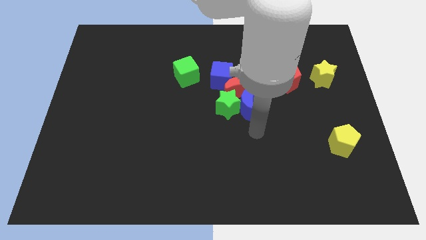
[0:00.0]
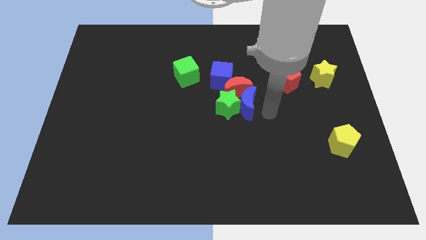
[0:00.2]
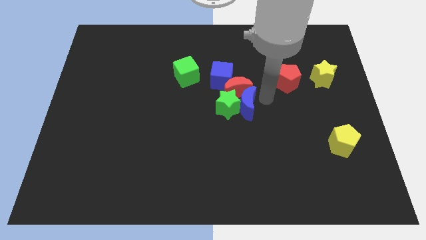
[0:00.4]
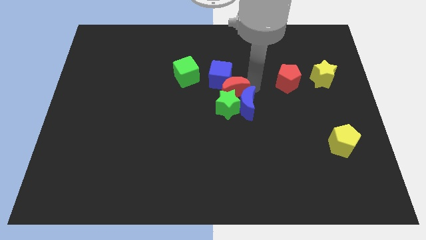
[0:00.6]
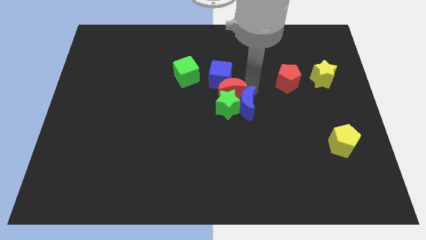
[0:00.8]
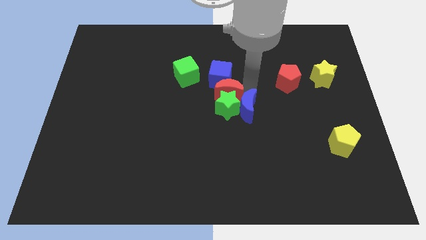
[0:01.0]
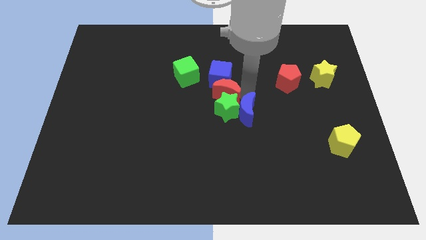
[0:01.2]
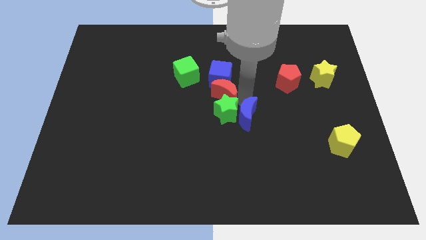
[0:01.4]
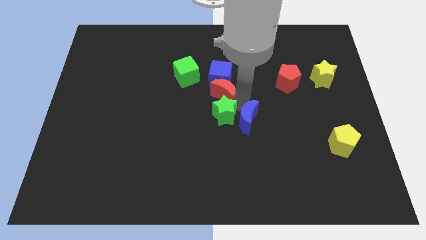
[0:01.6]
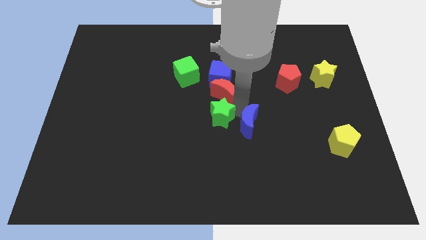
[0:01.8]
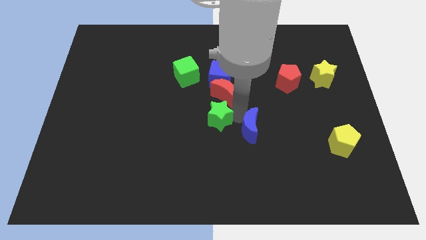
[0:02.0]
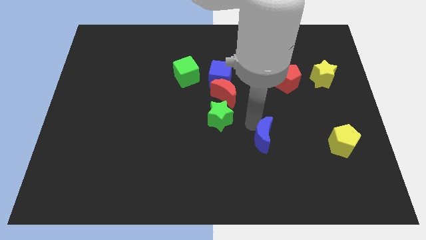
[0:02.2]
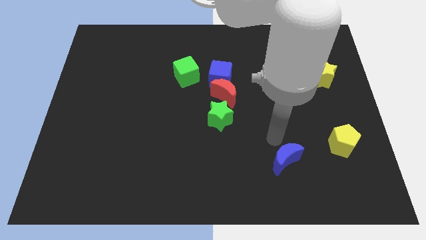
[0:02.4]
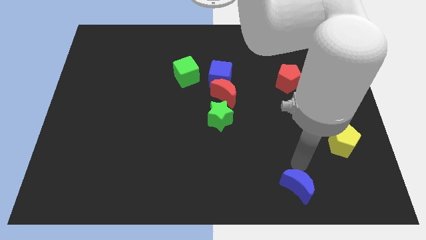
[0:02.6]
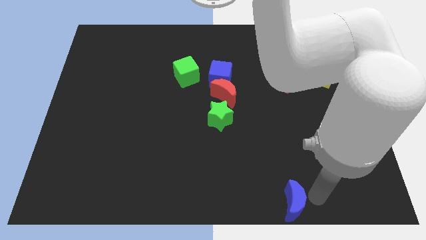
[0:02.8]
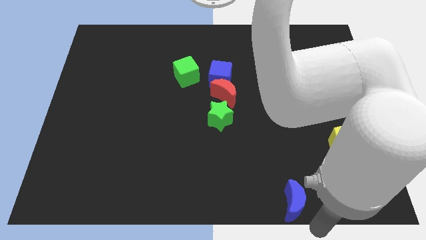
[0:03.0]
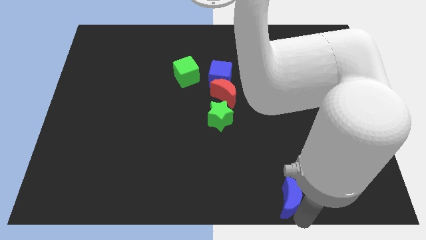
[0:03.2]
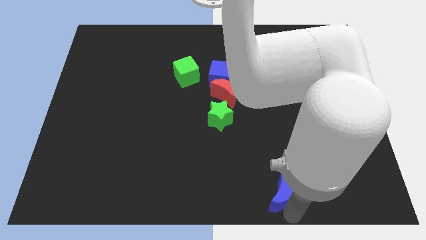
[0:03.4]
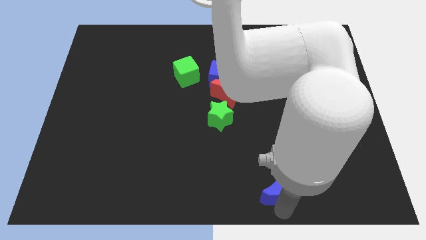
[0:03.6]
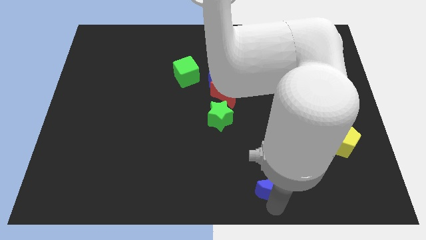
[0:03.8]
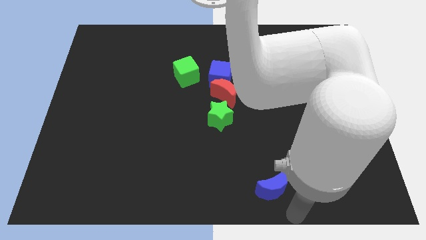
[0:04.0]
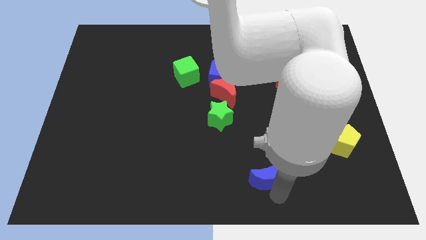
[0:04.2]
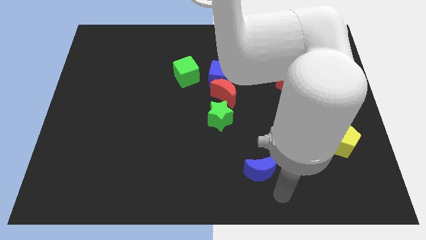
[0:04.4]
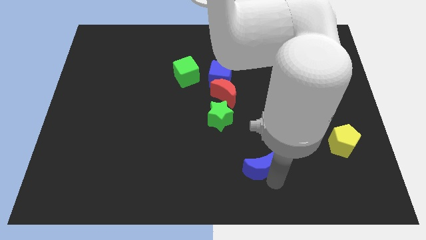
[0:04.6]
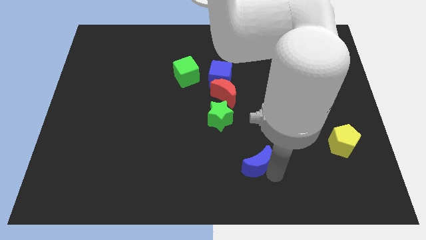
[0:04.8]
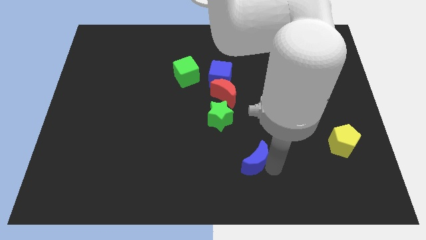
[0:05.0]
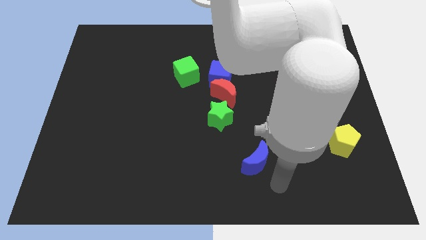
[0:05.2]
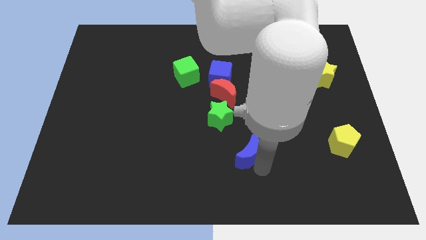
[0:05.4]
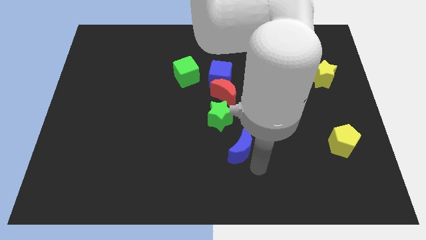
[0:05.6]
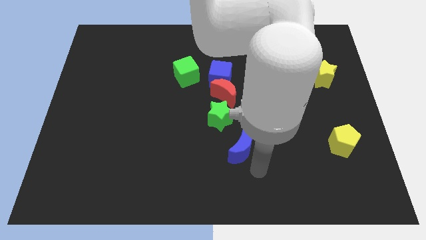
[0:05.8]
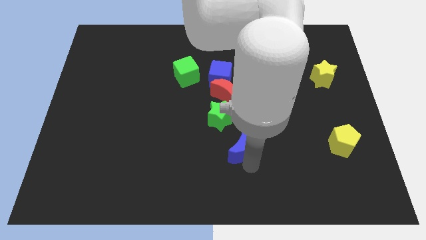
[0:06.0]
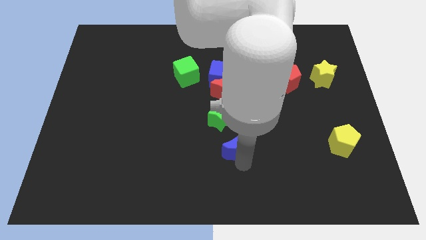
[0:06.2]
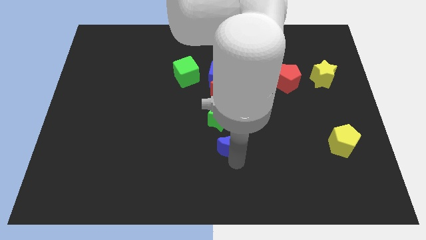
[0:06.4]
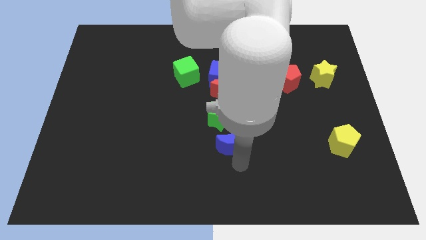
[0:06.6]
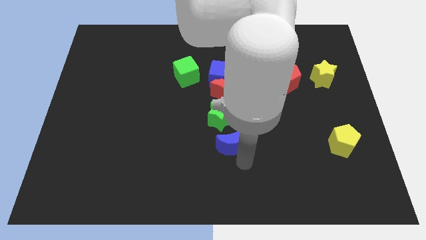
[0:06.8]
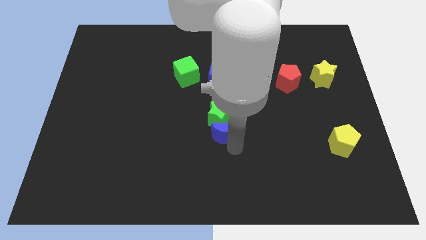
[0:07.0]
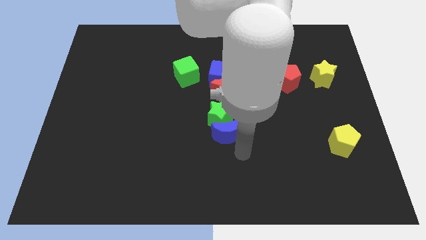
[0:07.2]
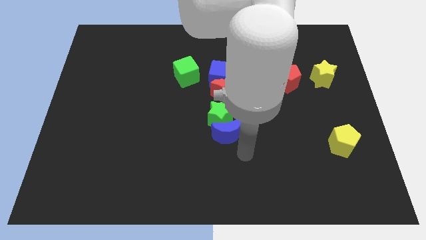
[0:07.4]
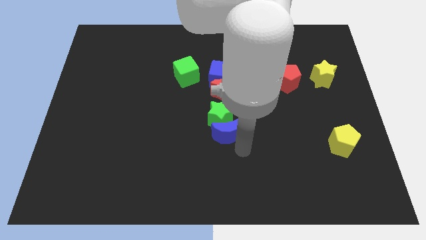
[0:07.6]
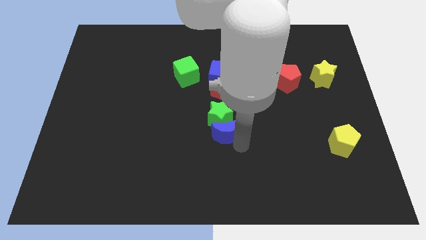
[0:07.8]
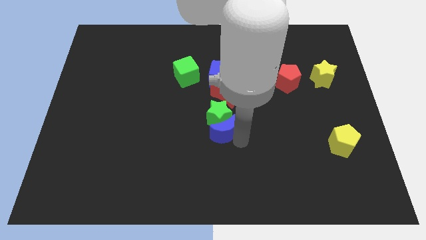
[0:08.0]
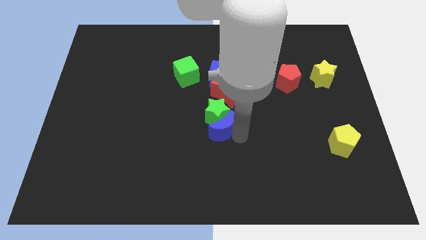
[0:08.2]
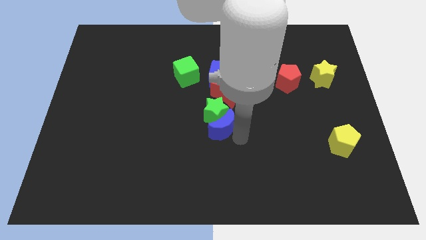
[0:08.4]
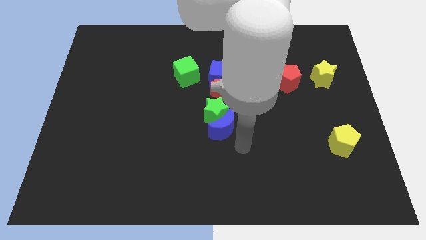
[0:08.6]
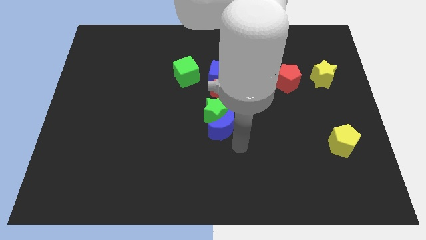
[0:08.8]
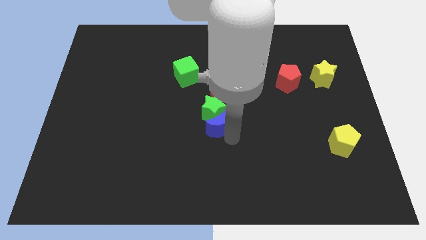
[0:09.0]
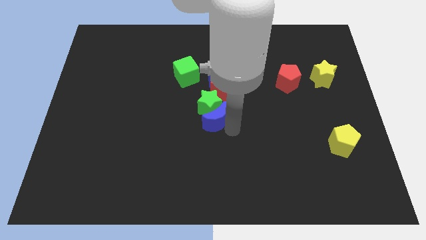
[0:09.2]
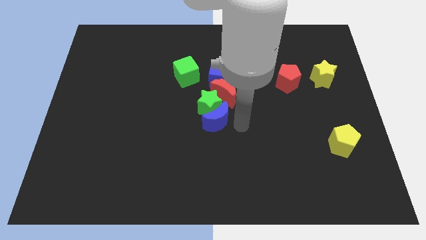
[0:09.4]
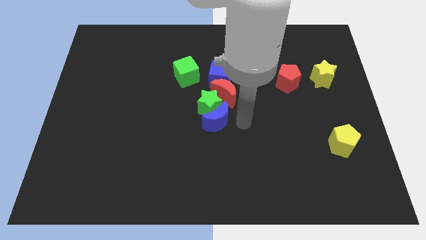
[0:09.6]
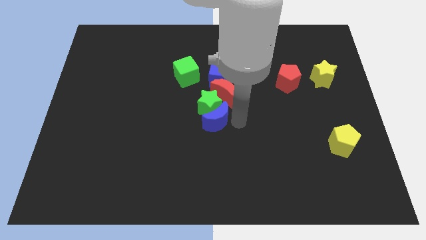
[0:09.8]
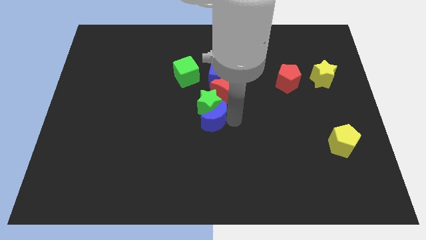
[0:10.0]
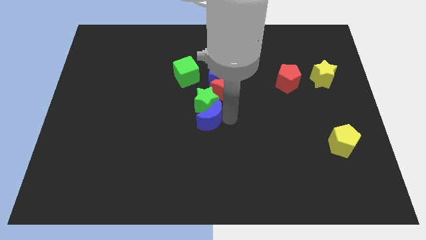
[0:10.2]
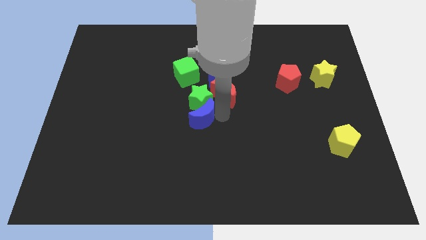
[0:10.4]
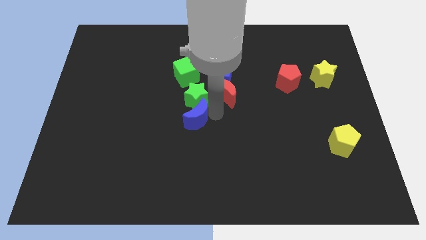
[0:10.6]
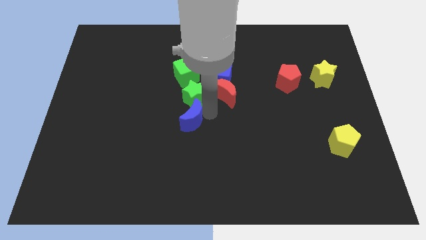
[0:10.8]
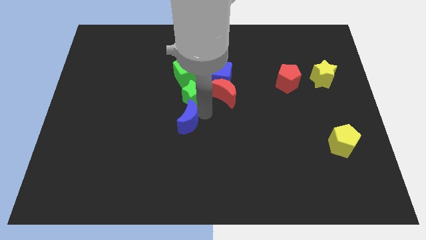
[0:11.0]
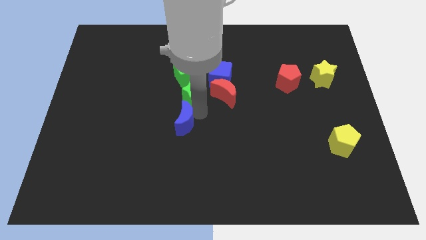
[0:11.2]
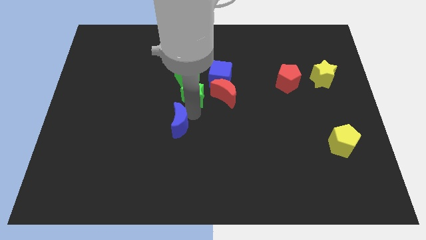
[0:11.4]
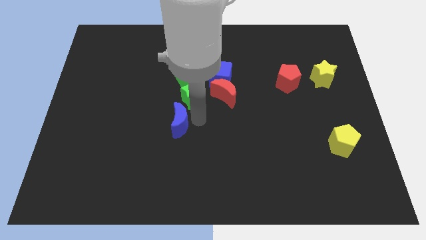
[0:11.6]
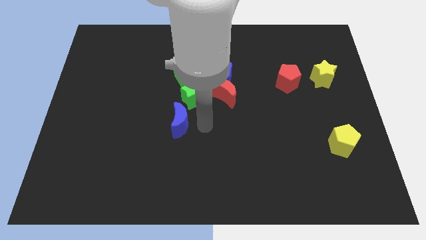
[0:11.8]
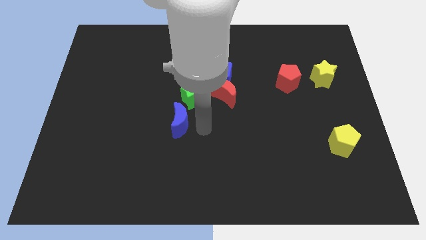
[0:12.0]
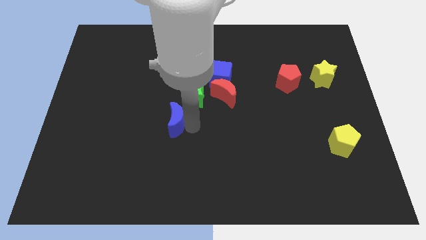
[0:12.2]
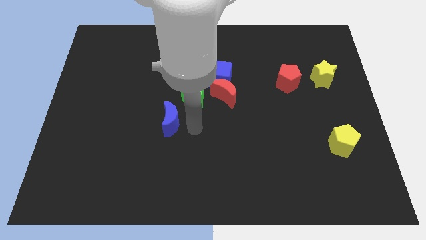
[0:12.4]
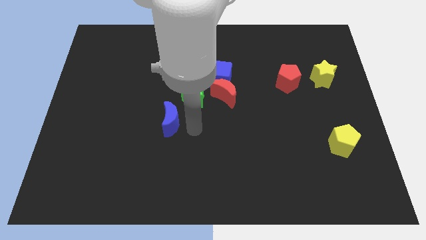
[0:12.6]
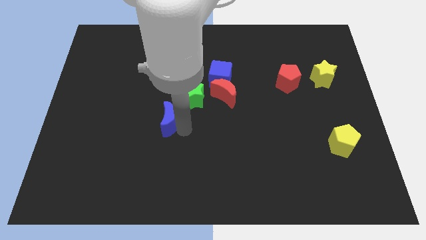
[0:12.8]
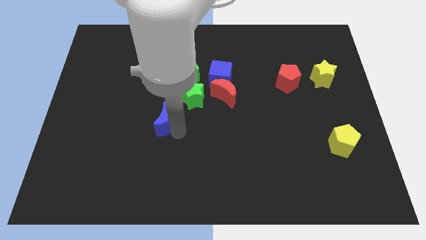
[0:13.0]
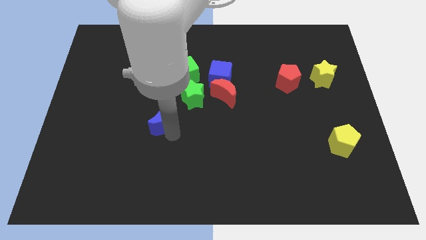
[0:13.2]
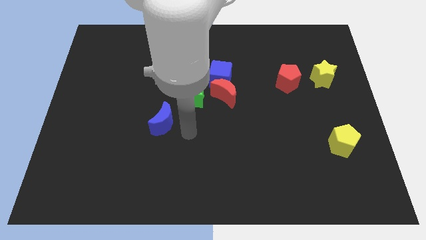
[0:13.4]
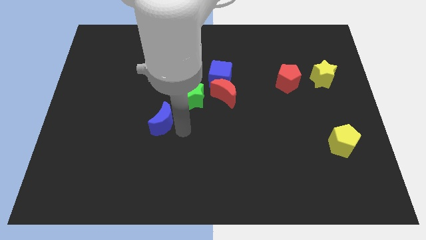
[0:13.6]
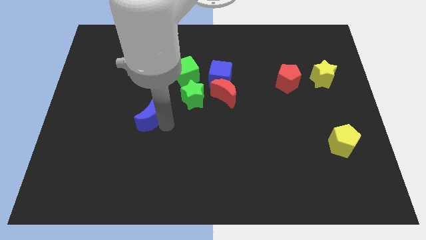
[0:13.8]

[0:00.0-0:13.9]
push the blue moon to the left

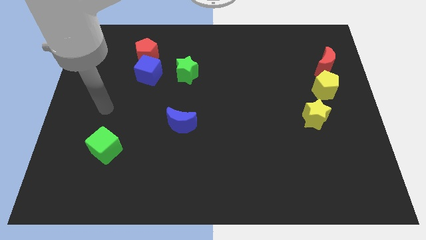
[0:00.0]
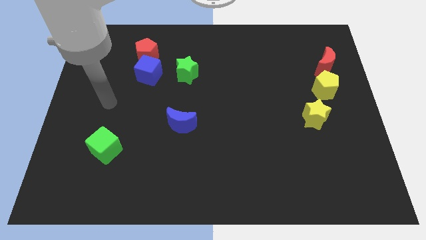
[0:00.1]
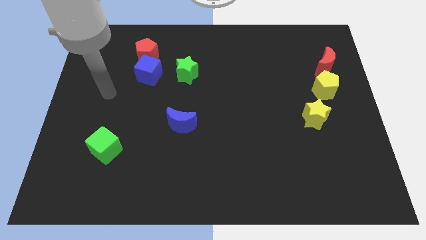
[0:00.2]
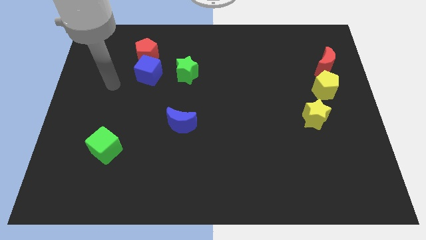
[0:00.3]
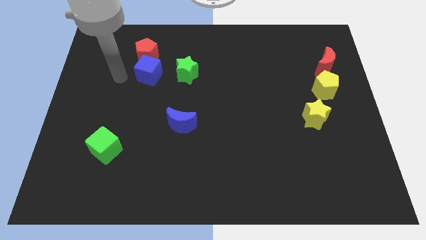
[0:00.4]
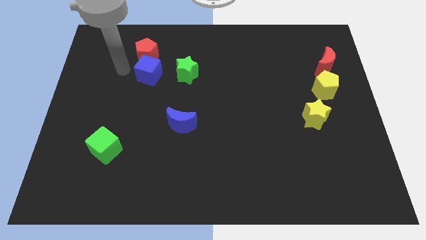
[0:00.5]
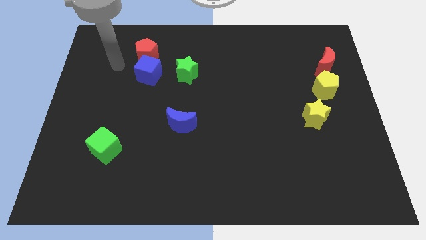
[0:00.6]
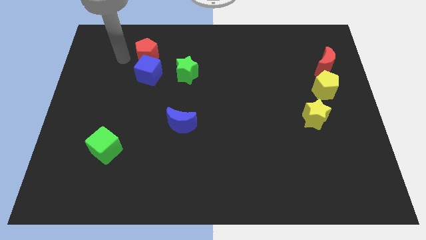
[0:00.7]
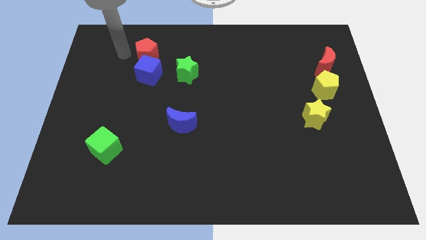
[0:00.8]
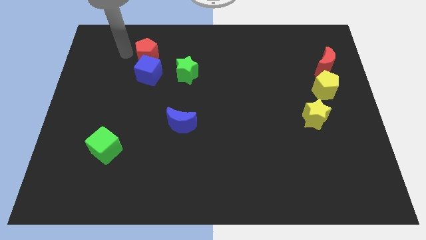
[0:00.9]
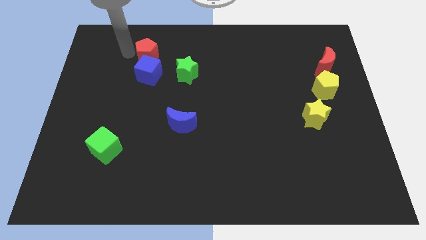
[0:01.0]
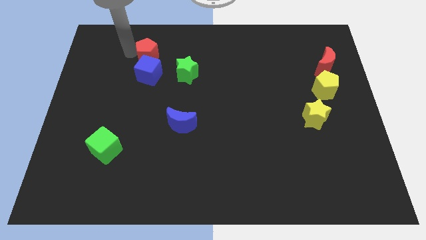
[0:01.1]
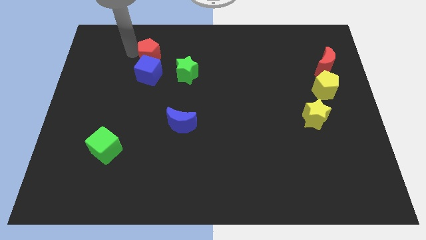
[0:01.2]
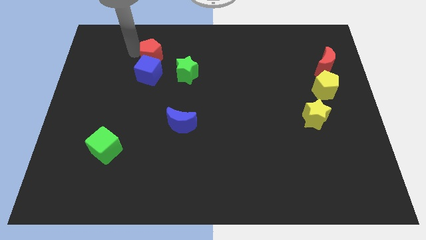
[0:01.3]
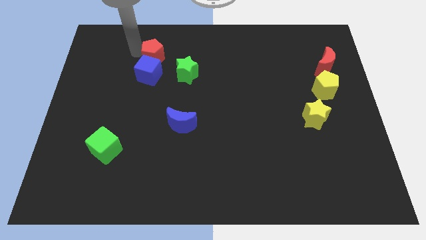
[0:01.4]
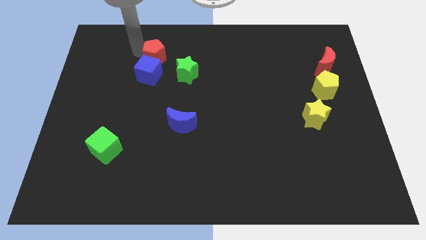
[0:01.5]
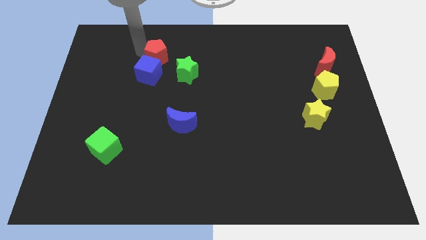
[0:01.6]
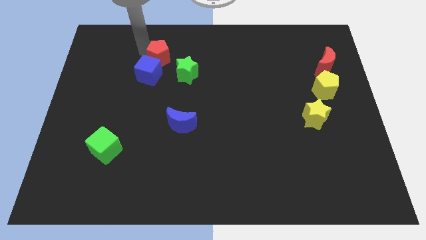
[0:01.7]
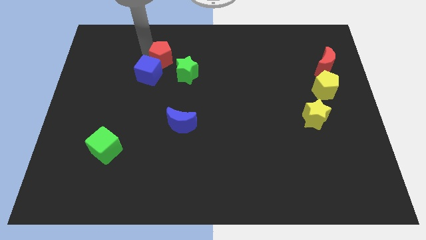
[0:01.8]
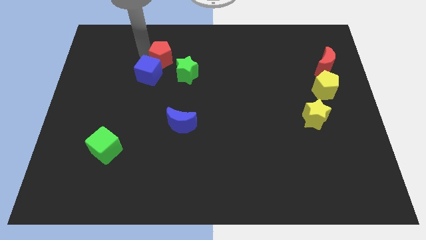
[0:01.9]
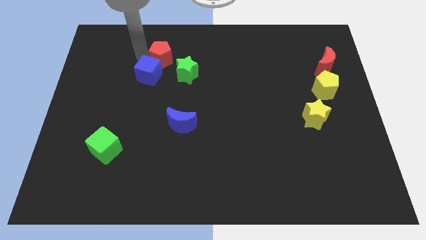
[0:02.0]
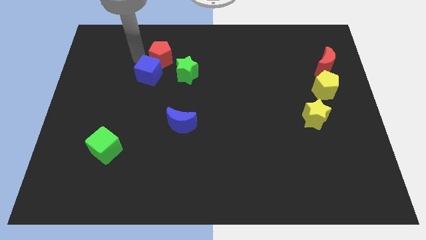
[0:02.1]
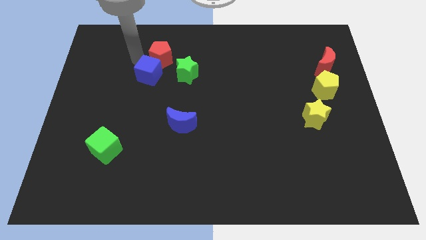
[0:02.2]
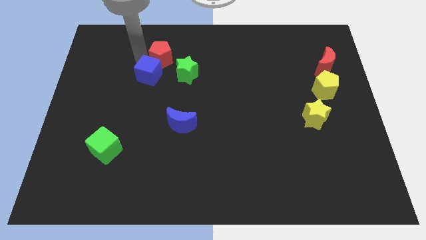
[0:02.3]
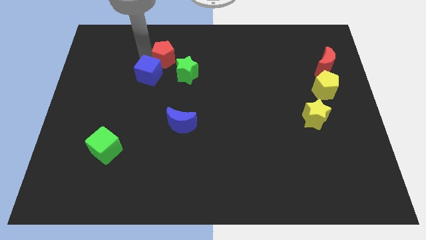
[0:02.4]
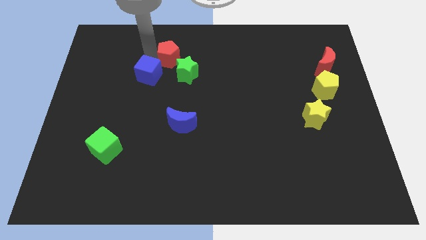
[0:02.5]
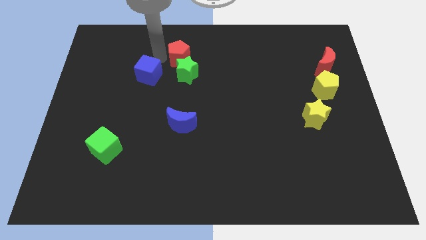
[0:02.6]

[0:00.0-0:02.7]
slide the red pentagon somewhat to the right
